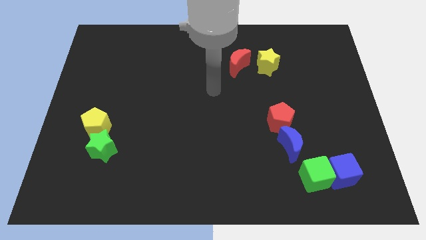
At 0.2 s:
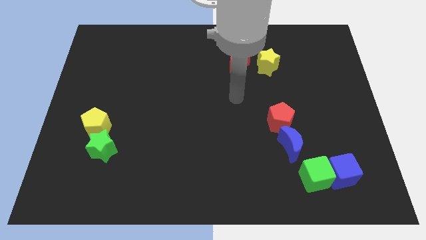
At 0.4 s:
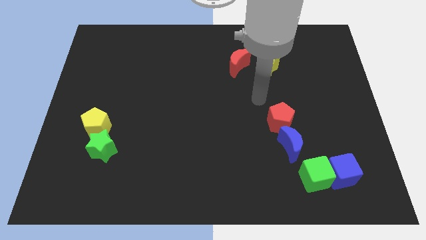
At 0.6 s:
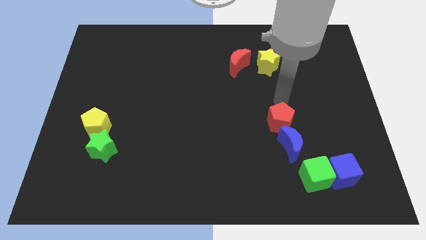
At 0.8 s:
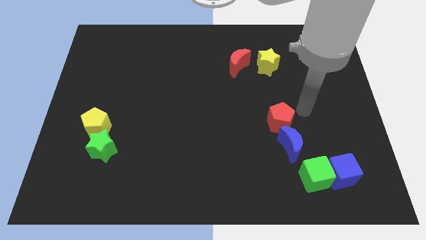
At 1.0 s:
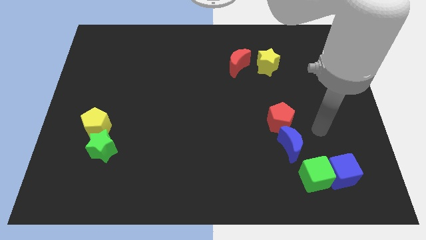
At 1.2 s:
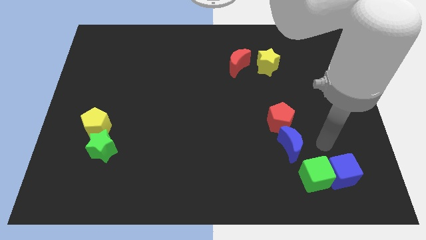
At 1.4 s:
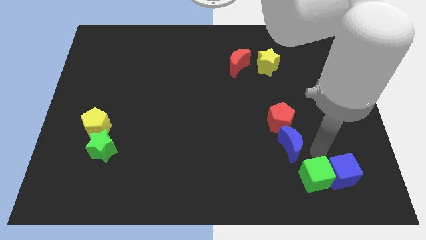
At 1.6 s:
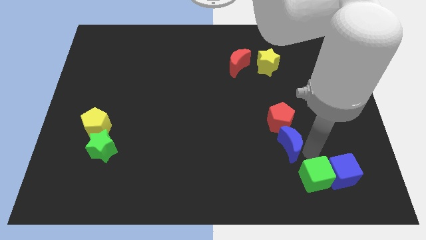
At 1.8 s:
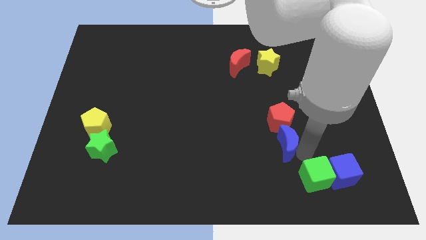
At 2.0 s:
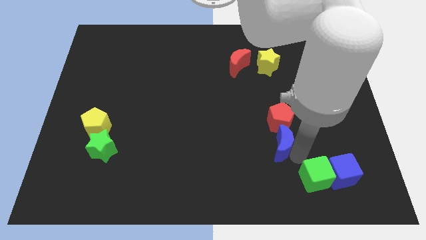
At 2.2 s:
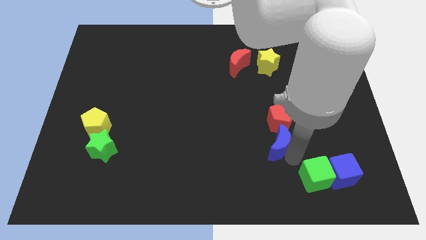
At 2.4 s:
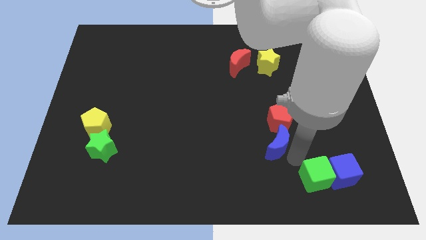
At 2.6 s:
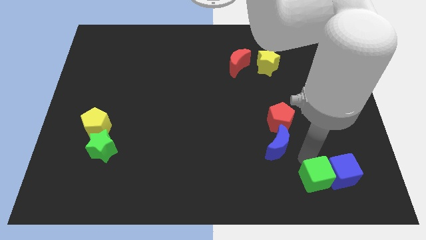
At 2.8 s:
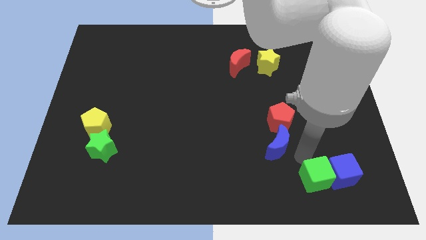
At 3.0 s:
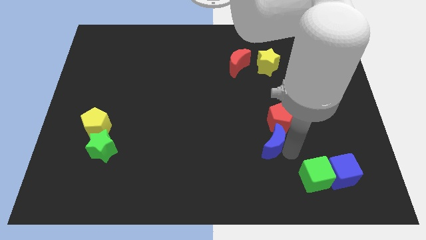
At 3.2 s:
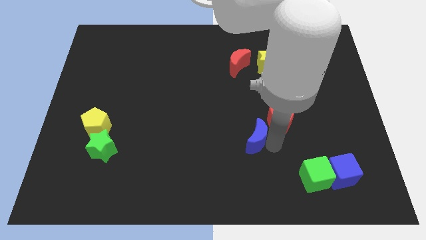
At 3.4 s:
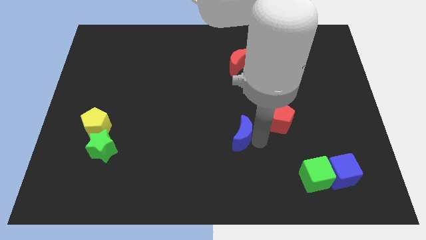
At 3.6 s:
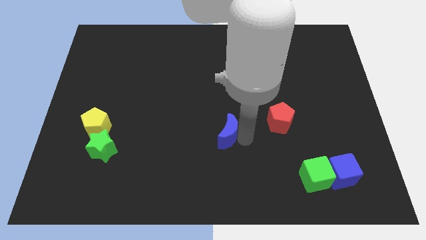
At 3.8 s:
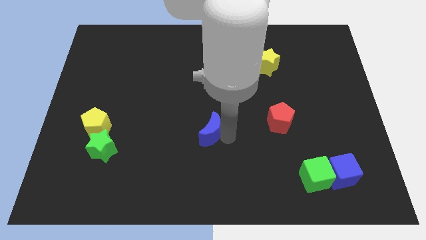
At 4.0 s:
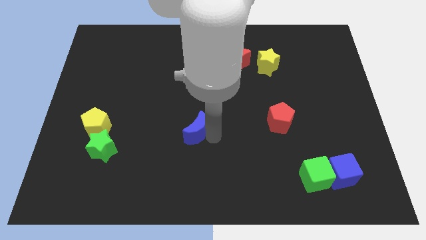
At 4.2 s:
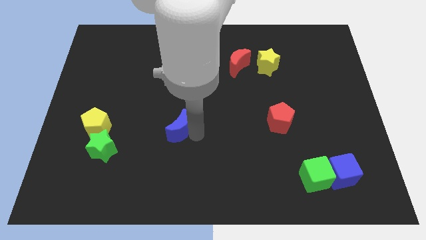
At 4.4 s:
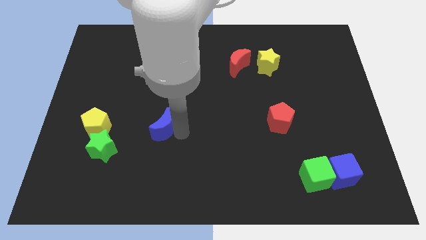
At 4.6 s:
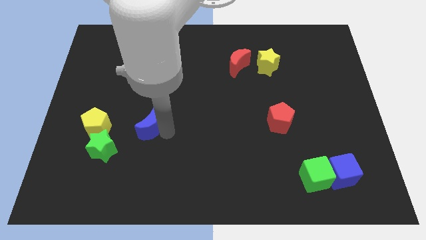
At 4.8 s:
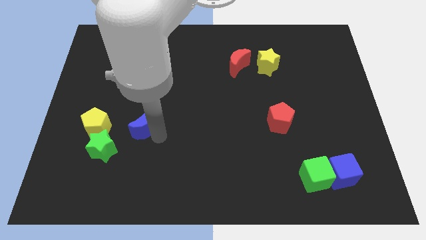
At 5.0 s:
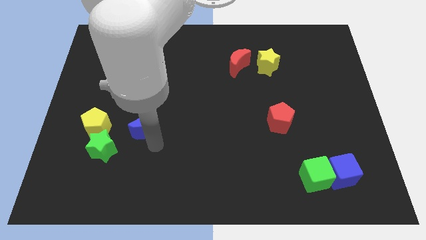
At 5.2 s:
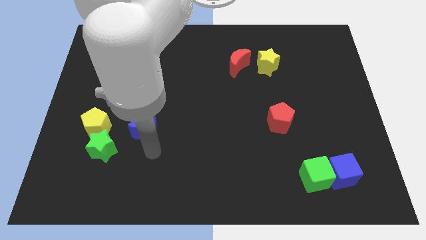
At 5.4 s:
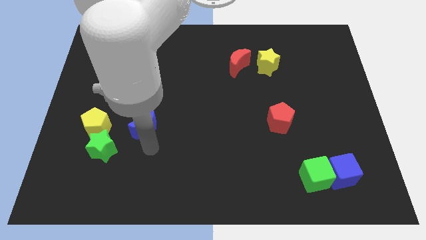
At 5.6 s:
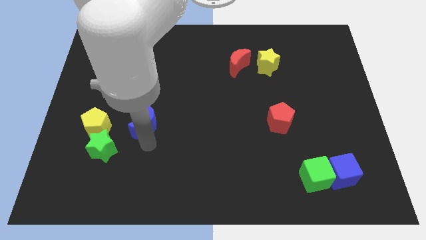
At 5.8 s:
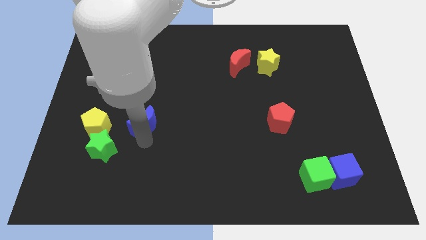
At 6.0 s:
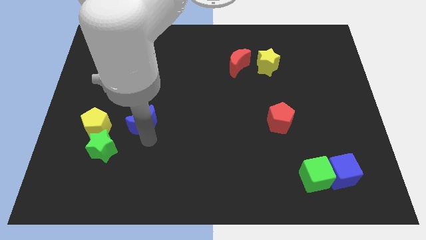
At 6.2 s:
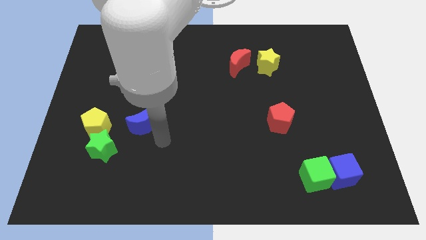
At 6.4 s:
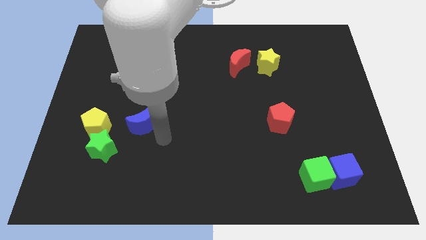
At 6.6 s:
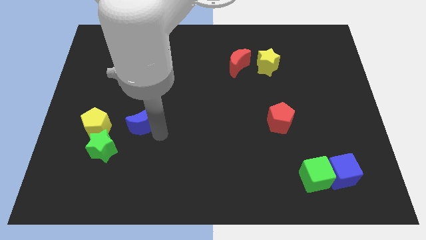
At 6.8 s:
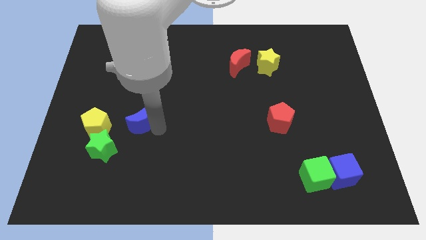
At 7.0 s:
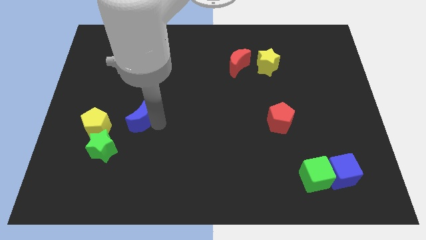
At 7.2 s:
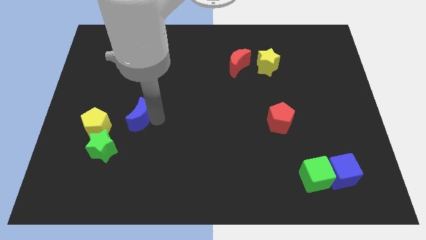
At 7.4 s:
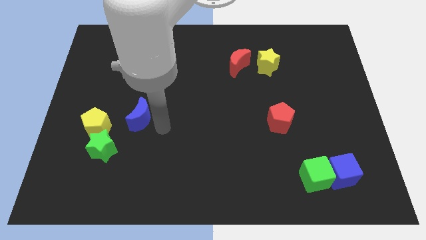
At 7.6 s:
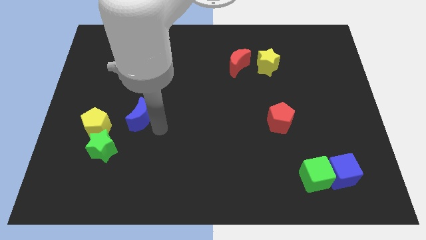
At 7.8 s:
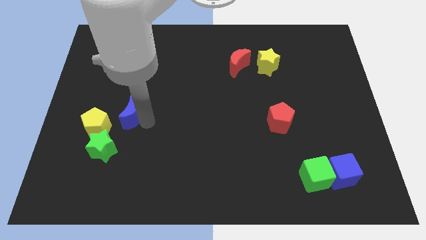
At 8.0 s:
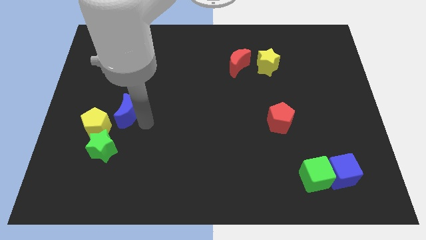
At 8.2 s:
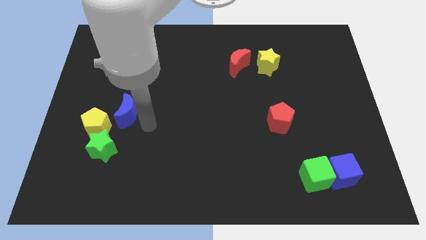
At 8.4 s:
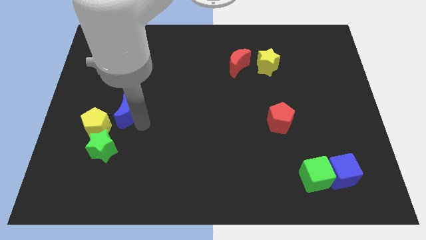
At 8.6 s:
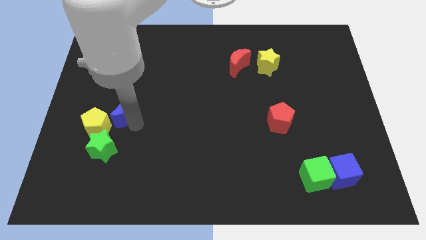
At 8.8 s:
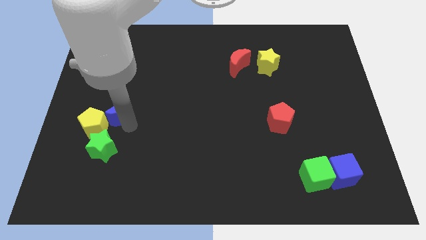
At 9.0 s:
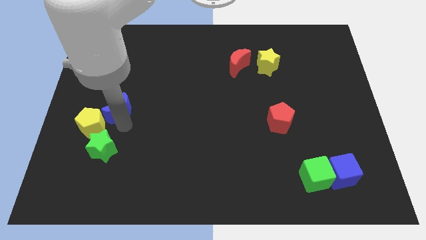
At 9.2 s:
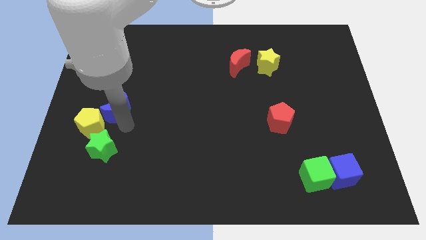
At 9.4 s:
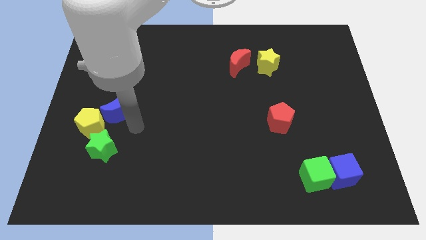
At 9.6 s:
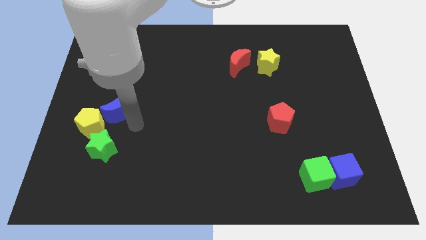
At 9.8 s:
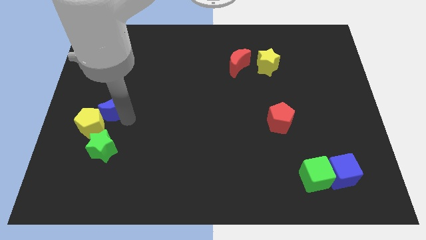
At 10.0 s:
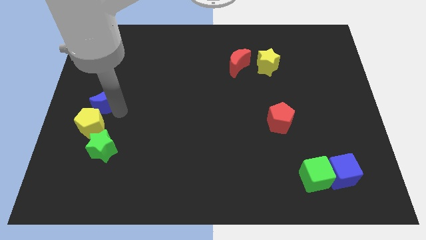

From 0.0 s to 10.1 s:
slide the blue moon to the left side of the board

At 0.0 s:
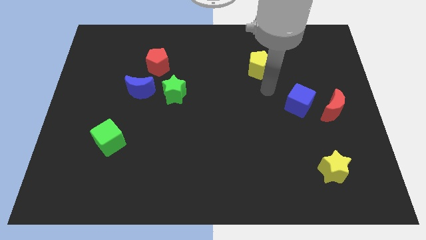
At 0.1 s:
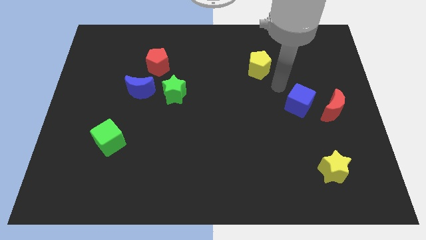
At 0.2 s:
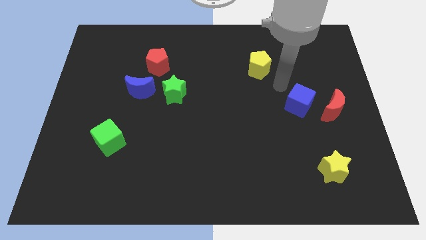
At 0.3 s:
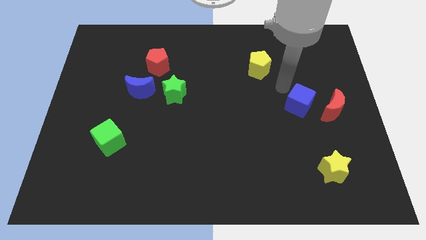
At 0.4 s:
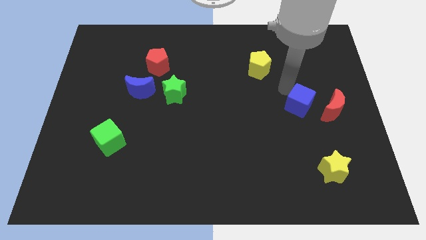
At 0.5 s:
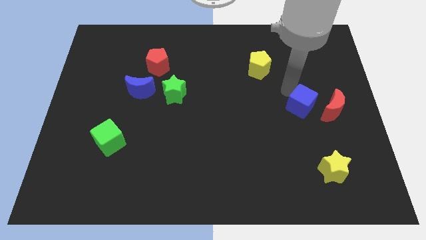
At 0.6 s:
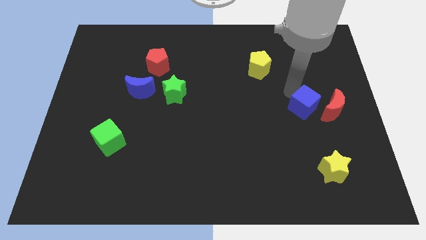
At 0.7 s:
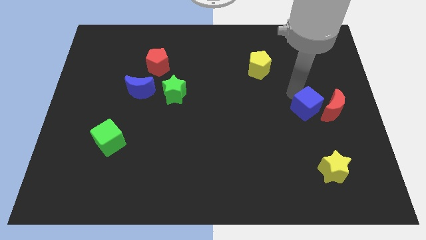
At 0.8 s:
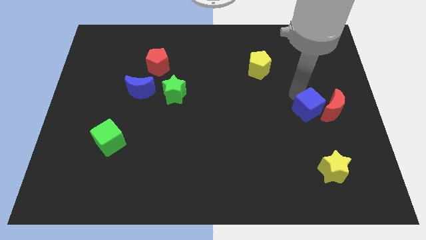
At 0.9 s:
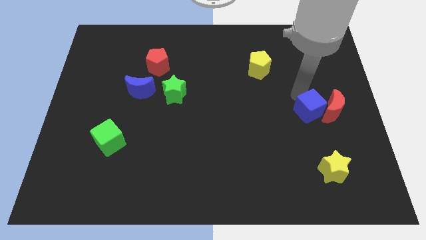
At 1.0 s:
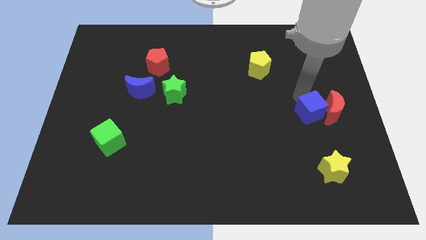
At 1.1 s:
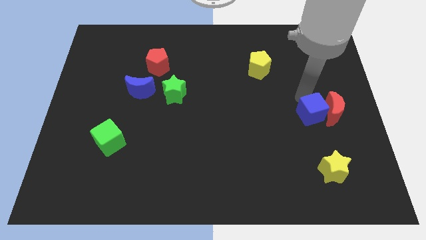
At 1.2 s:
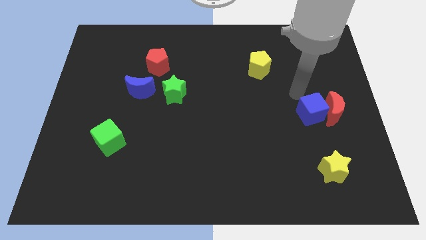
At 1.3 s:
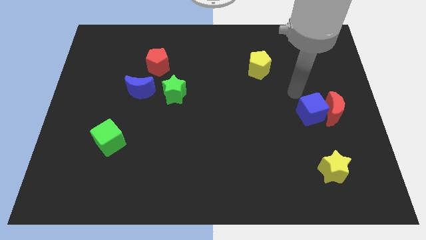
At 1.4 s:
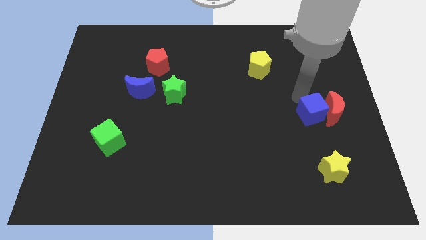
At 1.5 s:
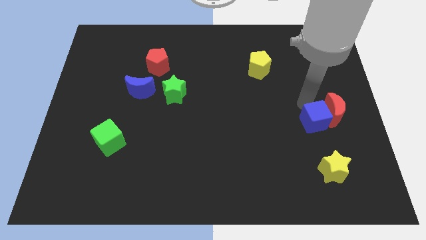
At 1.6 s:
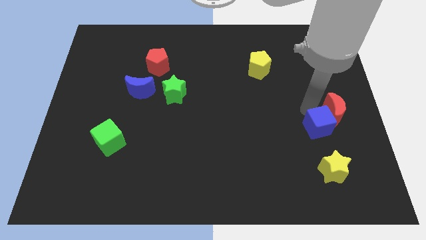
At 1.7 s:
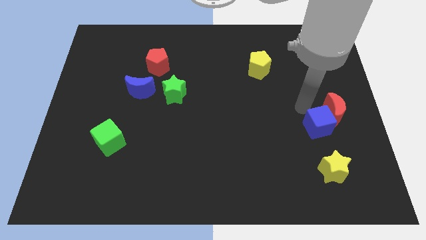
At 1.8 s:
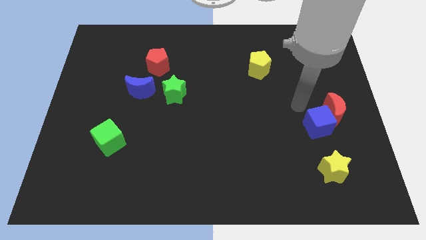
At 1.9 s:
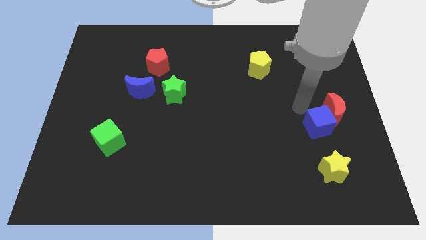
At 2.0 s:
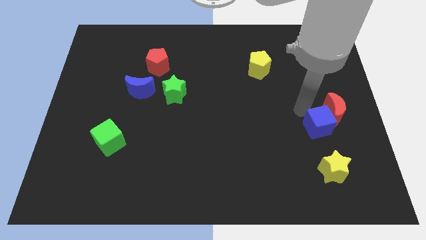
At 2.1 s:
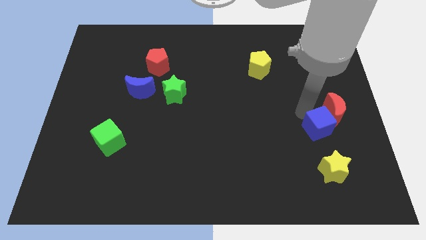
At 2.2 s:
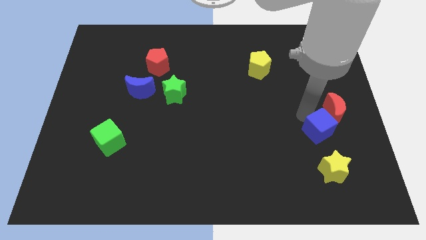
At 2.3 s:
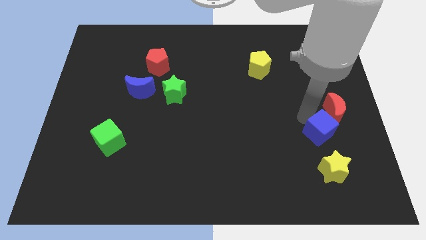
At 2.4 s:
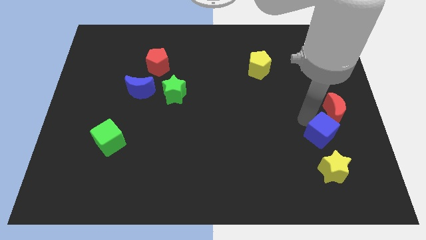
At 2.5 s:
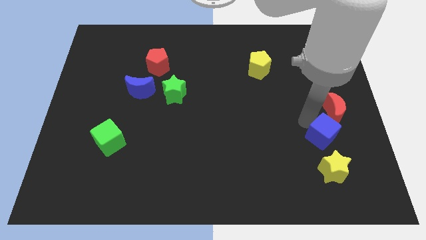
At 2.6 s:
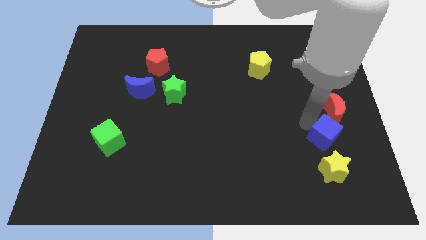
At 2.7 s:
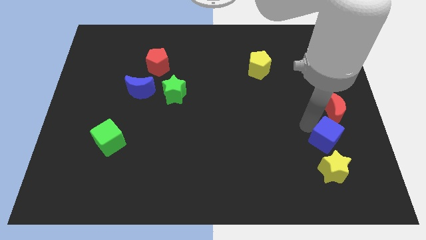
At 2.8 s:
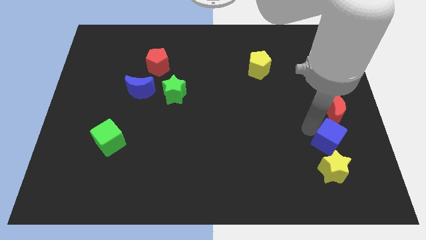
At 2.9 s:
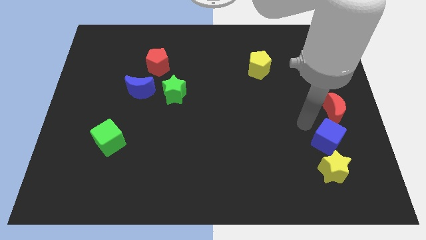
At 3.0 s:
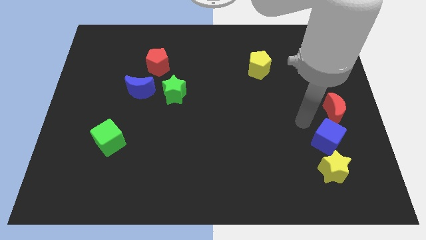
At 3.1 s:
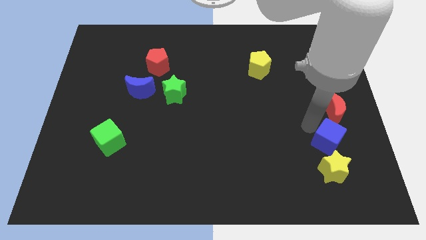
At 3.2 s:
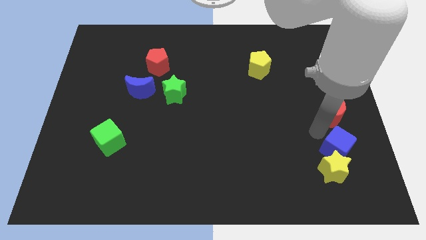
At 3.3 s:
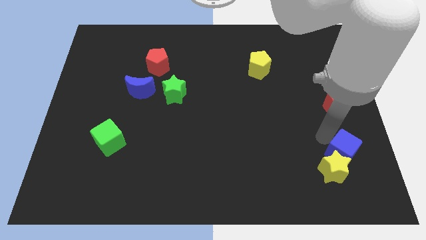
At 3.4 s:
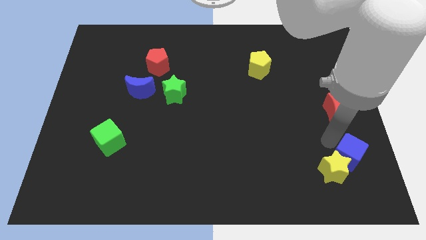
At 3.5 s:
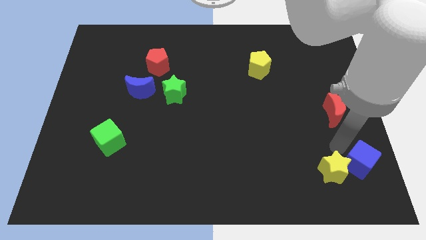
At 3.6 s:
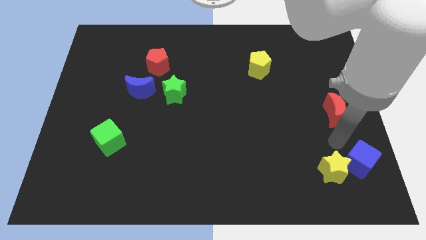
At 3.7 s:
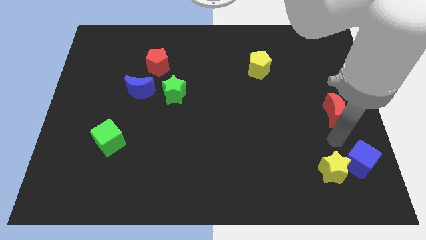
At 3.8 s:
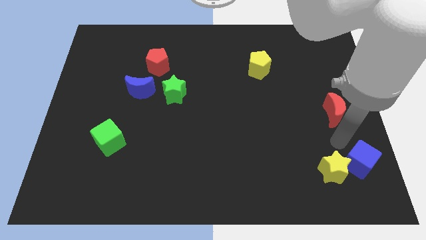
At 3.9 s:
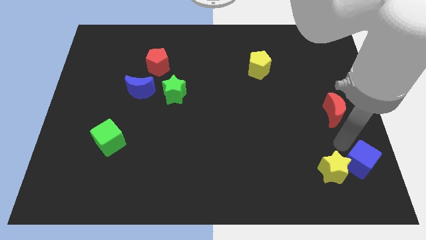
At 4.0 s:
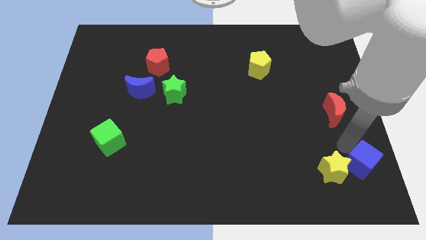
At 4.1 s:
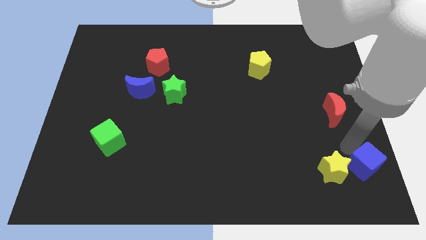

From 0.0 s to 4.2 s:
move the blue cube to the bottom right
